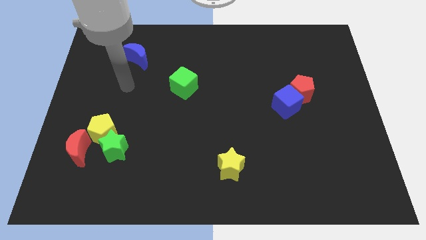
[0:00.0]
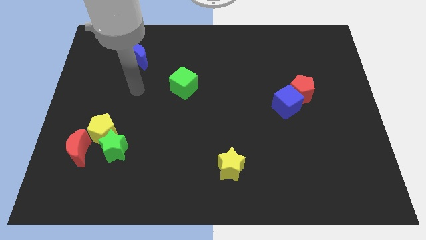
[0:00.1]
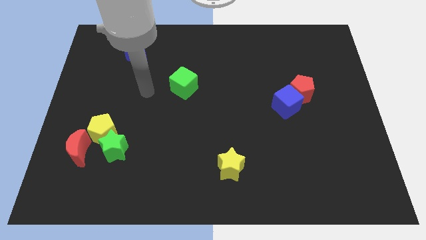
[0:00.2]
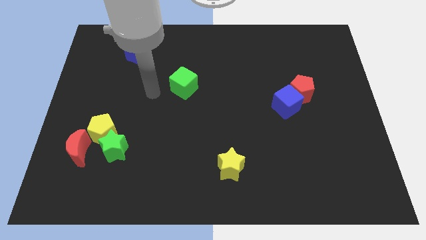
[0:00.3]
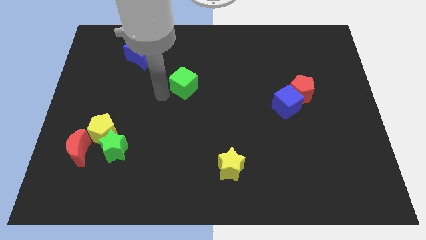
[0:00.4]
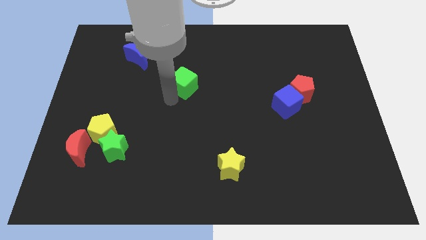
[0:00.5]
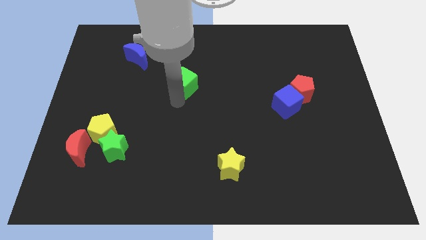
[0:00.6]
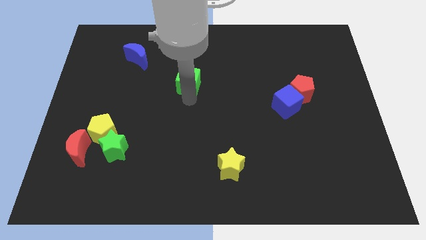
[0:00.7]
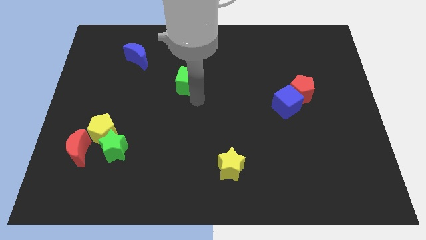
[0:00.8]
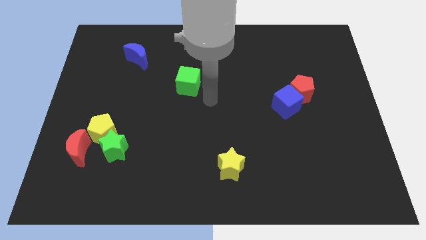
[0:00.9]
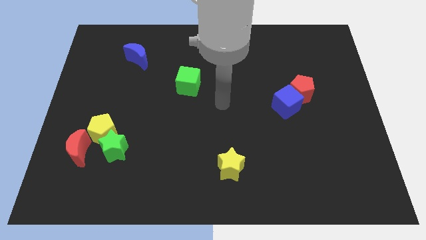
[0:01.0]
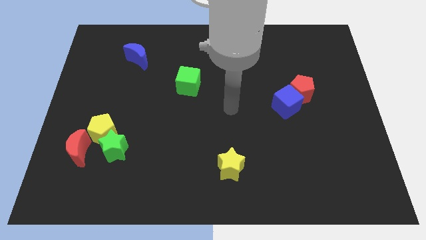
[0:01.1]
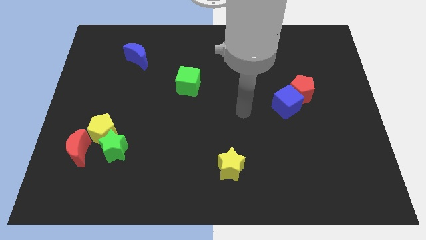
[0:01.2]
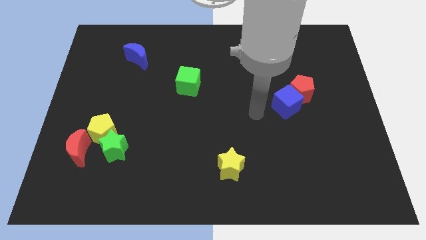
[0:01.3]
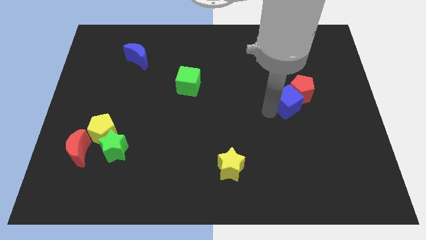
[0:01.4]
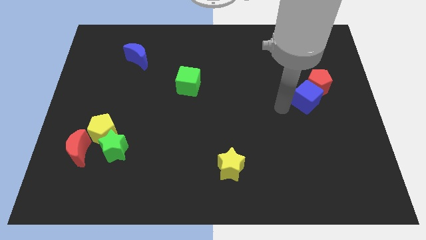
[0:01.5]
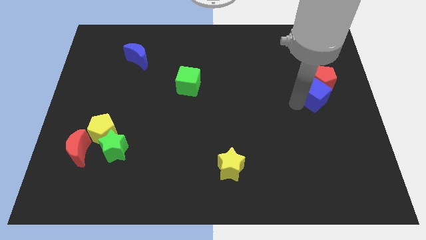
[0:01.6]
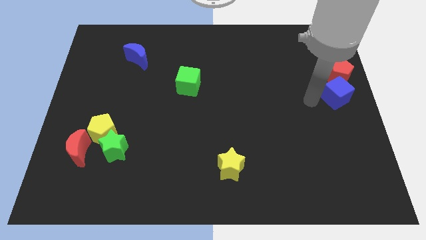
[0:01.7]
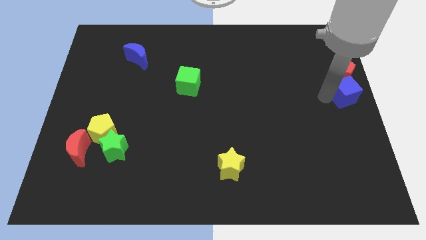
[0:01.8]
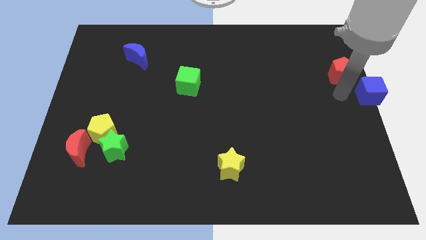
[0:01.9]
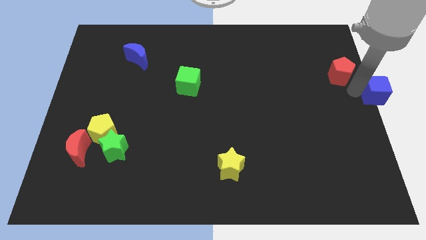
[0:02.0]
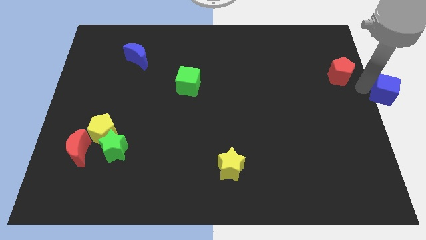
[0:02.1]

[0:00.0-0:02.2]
separate the red pentagon from the blue cube

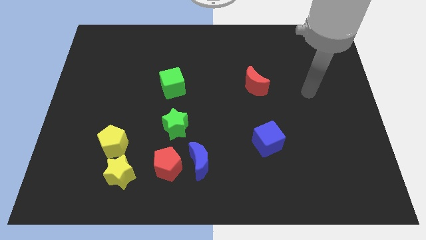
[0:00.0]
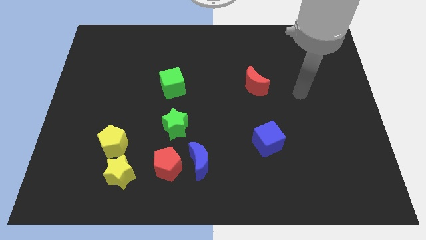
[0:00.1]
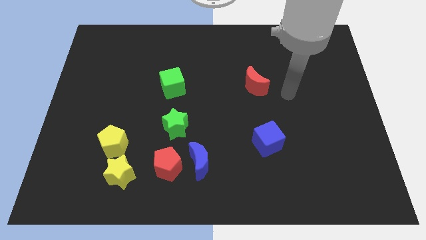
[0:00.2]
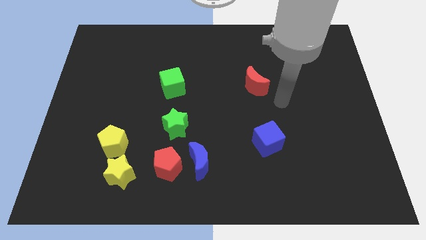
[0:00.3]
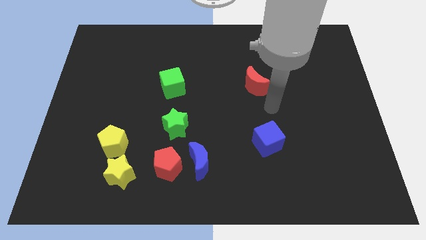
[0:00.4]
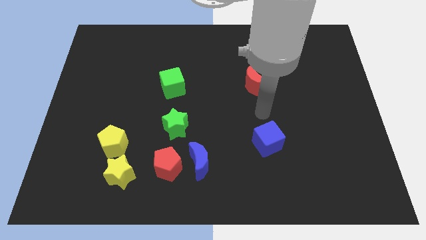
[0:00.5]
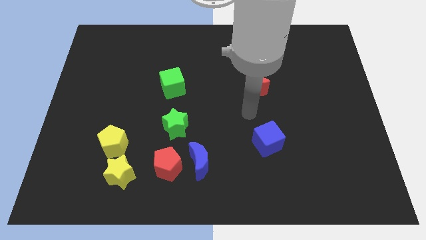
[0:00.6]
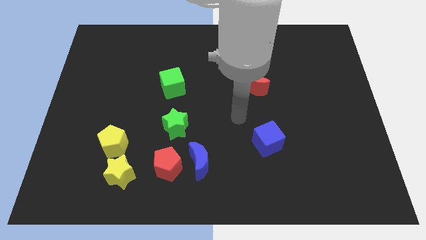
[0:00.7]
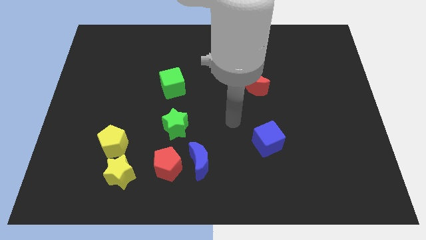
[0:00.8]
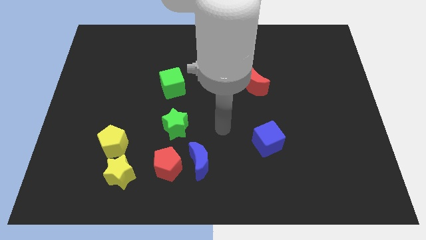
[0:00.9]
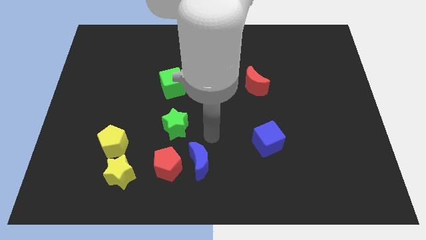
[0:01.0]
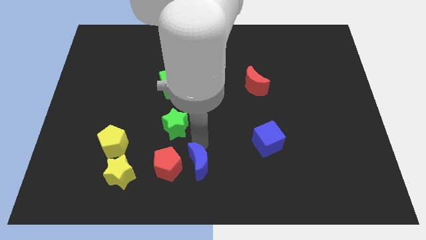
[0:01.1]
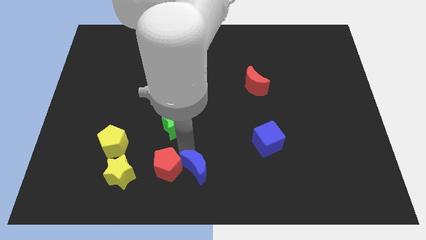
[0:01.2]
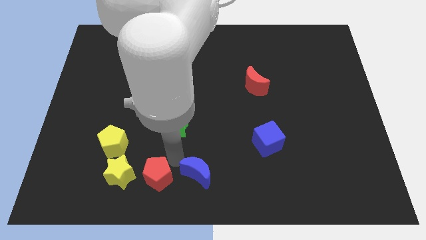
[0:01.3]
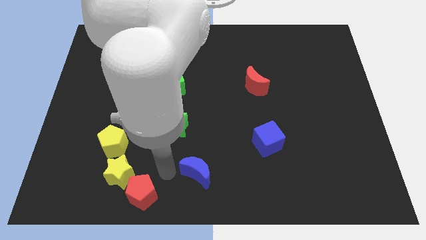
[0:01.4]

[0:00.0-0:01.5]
separate the blue moon from the red pentagon

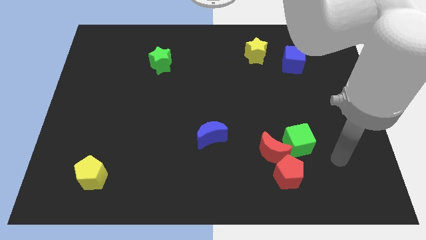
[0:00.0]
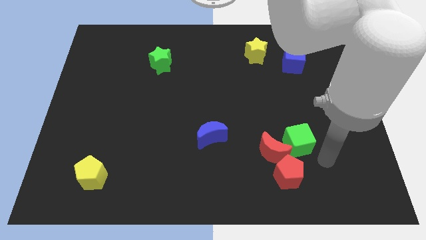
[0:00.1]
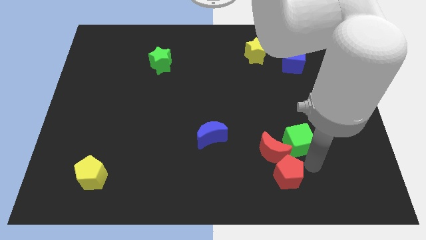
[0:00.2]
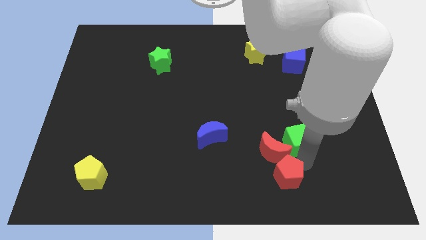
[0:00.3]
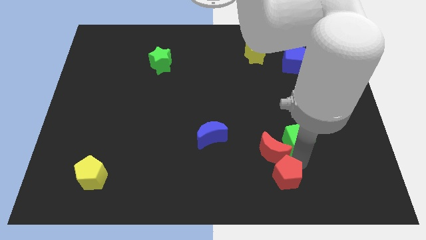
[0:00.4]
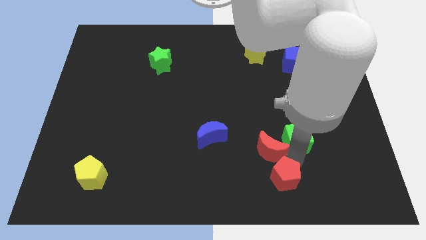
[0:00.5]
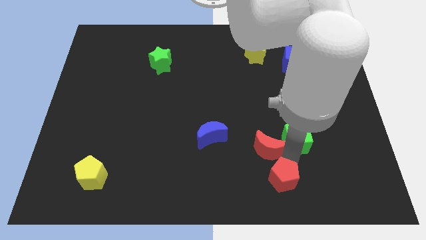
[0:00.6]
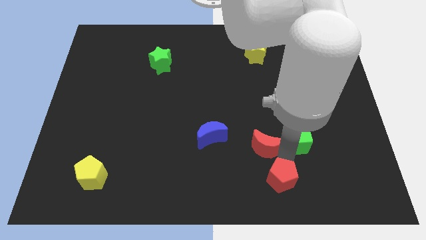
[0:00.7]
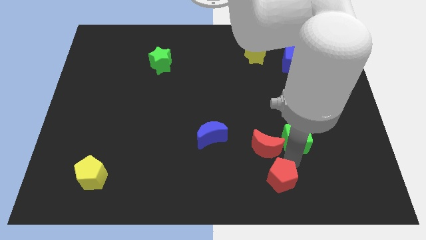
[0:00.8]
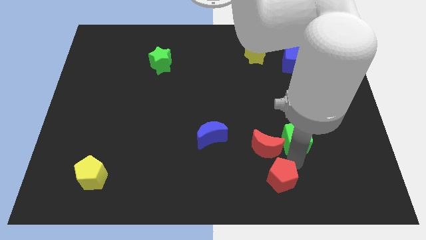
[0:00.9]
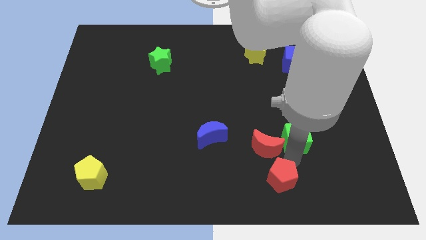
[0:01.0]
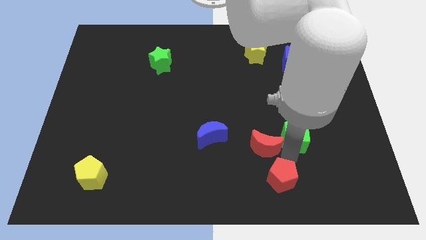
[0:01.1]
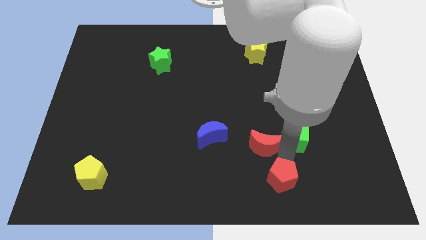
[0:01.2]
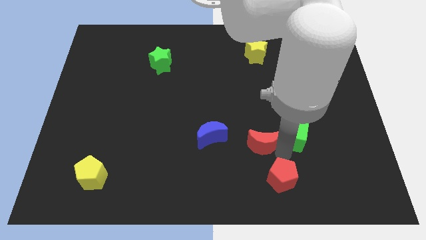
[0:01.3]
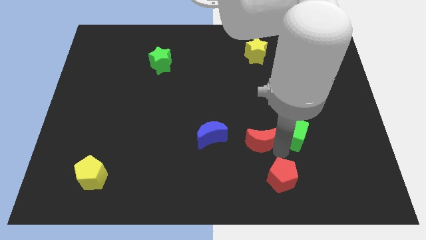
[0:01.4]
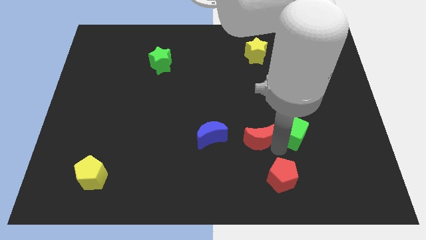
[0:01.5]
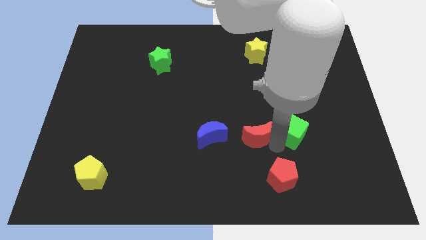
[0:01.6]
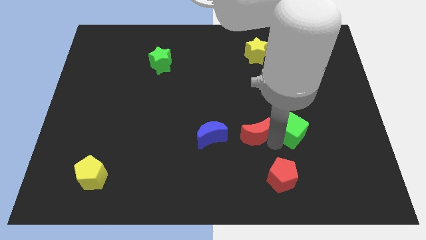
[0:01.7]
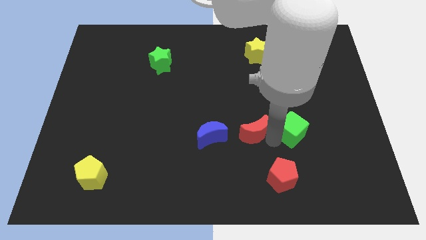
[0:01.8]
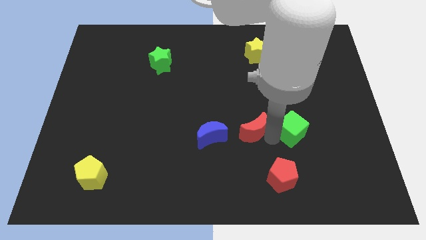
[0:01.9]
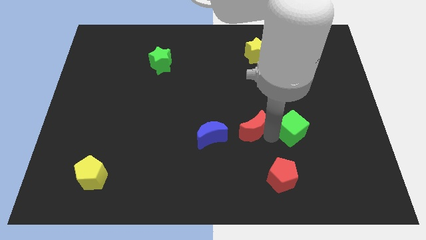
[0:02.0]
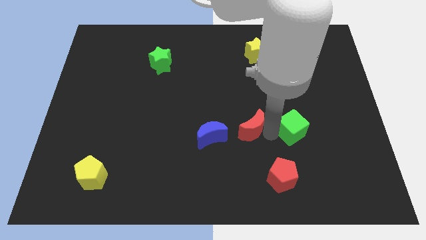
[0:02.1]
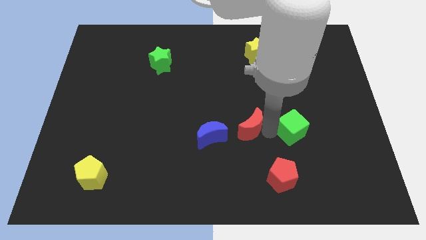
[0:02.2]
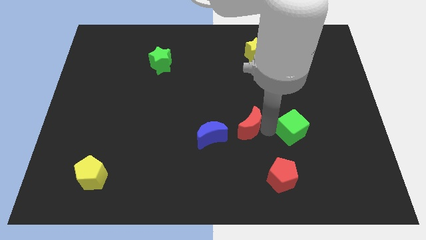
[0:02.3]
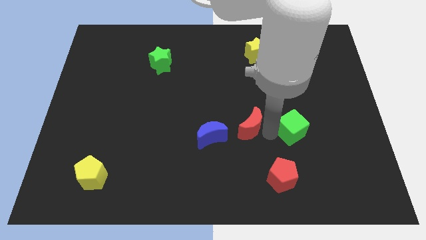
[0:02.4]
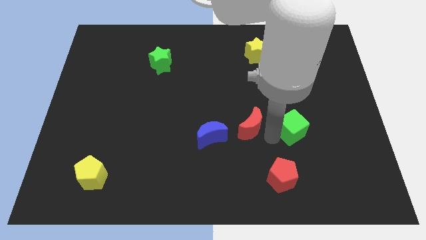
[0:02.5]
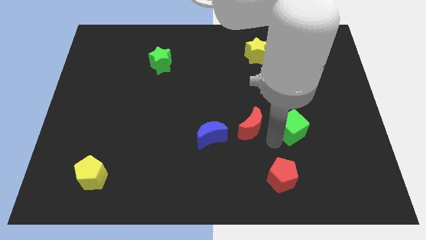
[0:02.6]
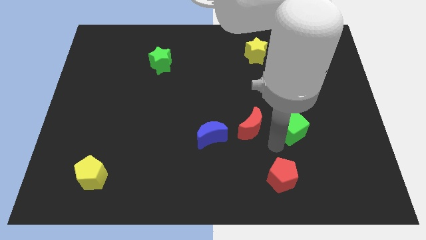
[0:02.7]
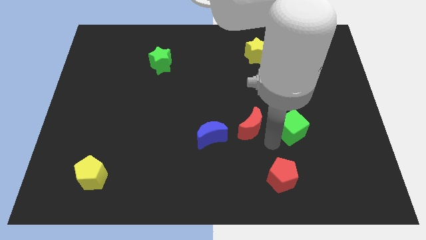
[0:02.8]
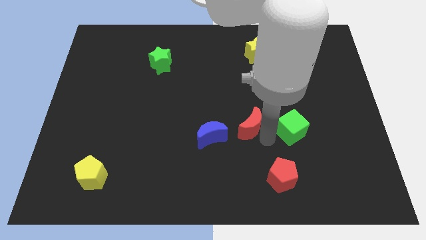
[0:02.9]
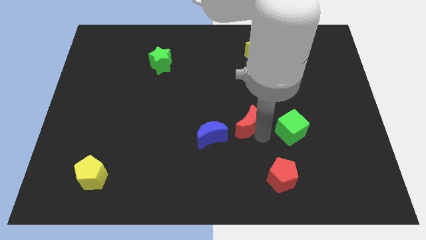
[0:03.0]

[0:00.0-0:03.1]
pull the red moon apart from the red pentagon and green cube

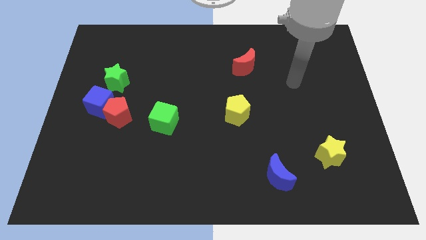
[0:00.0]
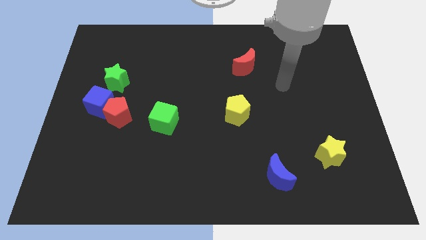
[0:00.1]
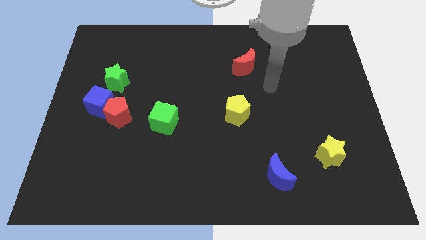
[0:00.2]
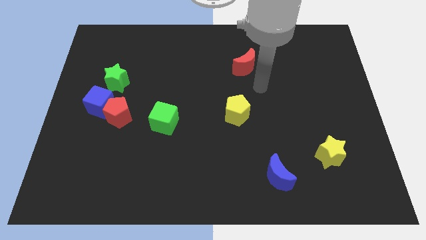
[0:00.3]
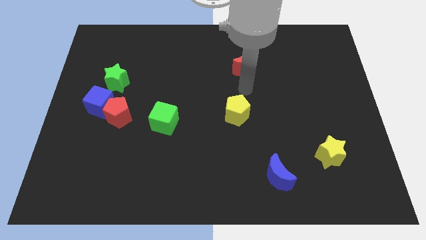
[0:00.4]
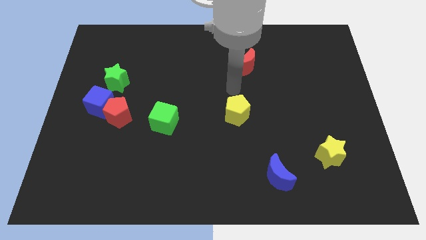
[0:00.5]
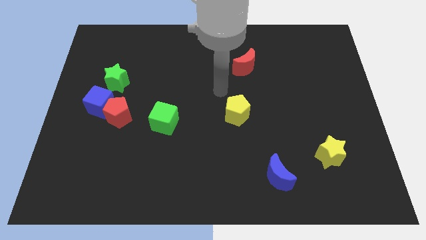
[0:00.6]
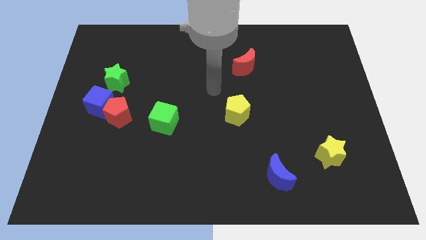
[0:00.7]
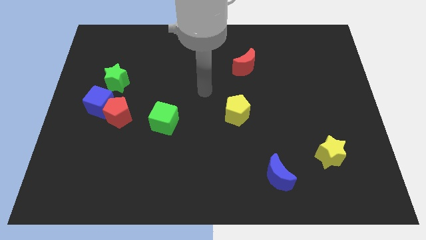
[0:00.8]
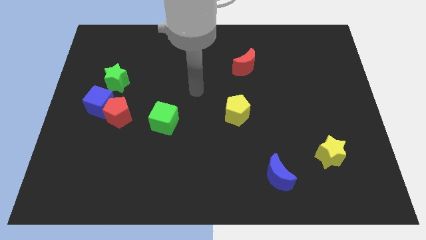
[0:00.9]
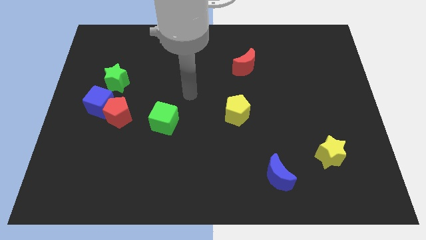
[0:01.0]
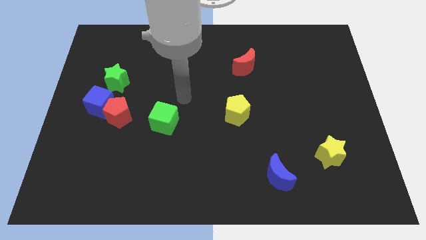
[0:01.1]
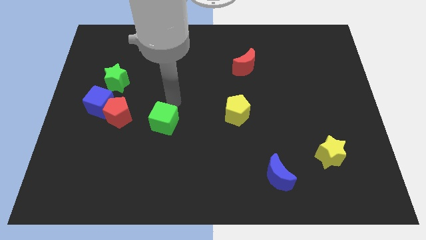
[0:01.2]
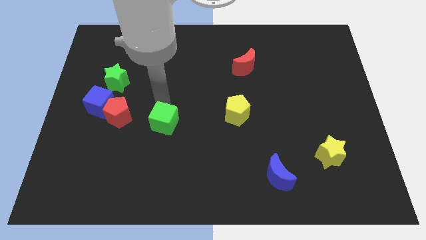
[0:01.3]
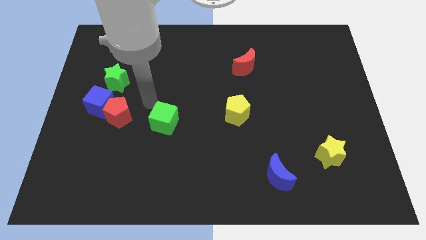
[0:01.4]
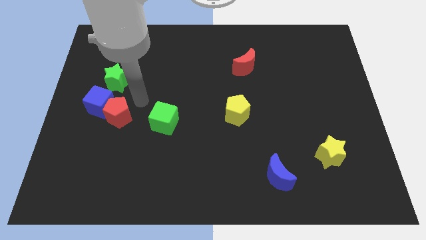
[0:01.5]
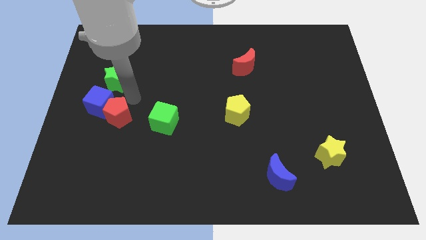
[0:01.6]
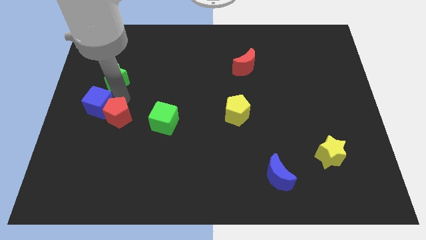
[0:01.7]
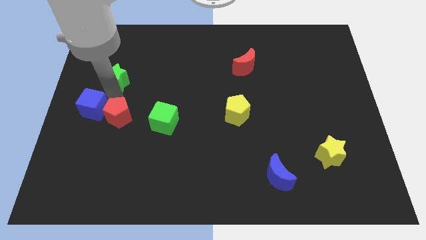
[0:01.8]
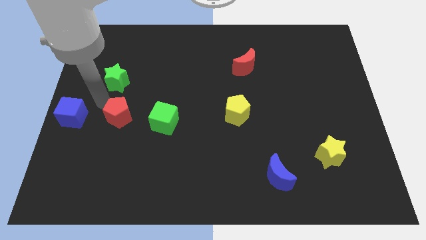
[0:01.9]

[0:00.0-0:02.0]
move the red pentagon away from the blue cube

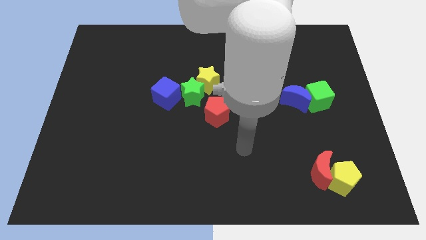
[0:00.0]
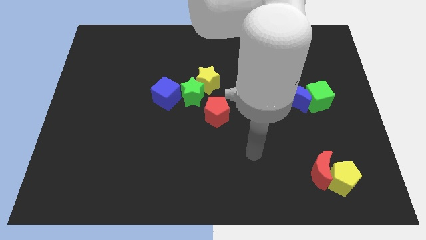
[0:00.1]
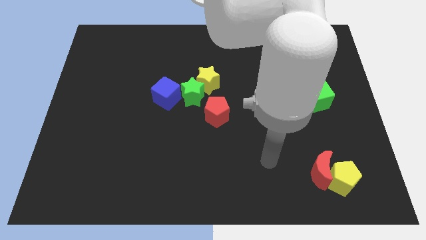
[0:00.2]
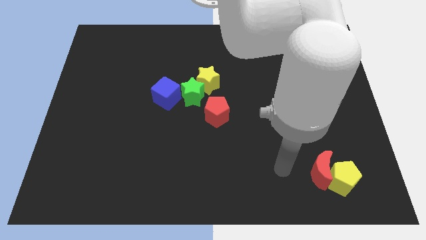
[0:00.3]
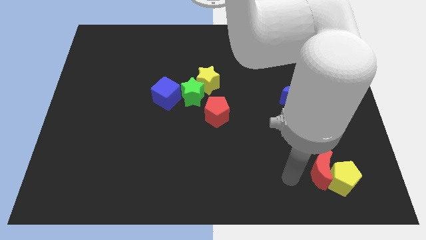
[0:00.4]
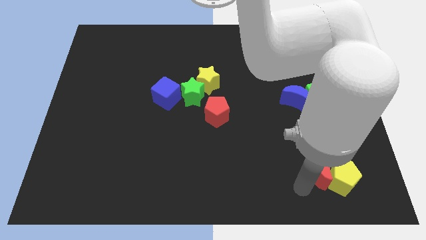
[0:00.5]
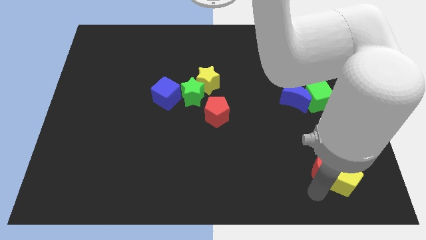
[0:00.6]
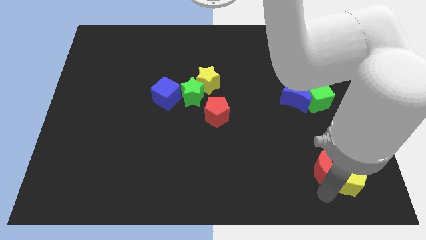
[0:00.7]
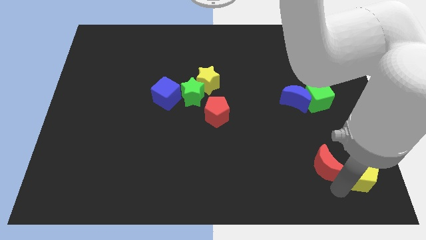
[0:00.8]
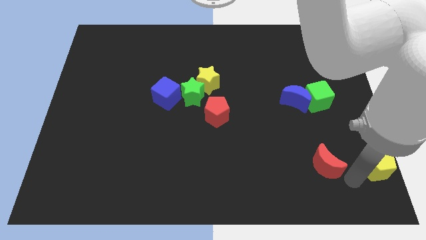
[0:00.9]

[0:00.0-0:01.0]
move the red moon away from the yellow pentagon
